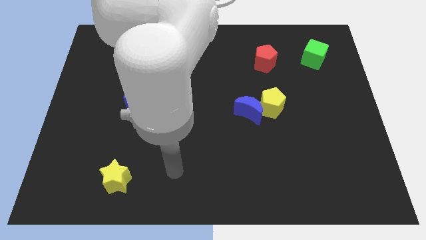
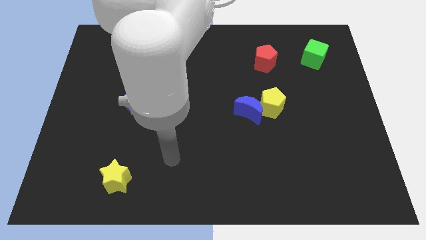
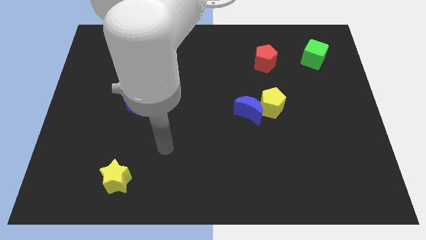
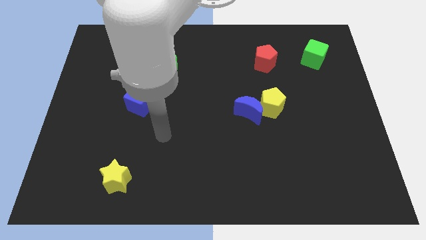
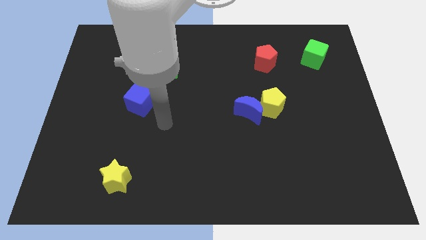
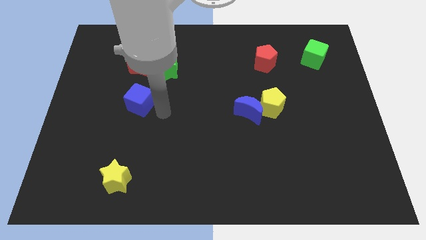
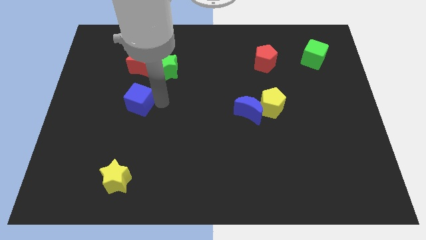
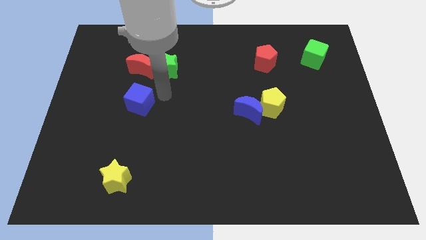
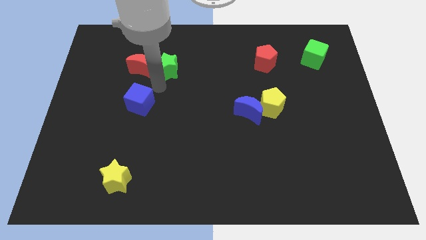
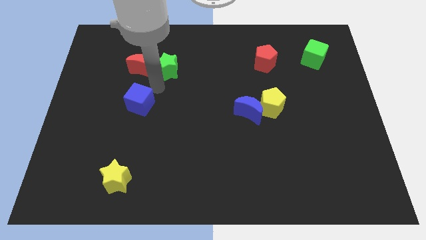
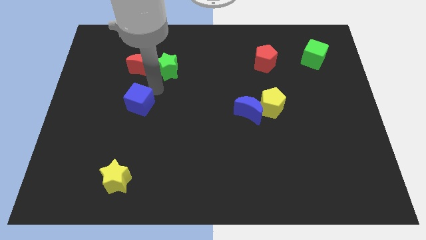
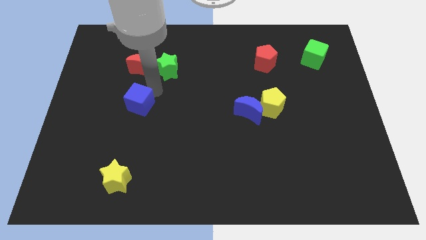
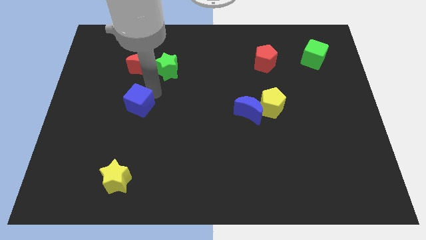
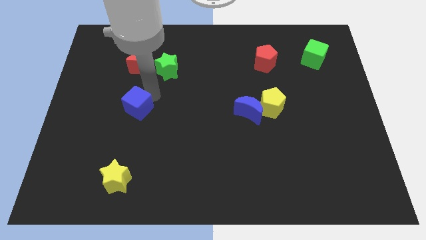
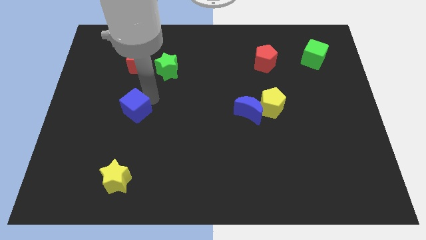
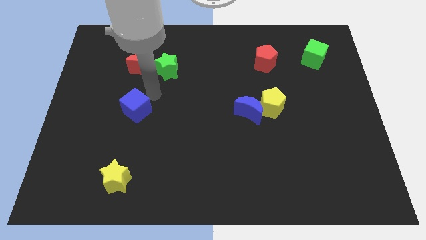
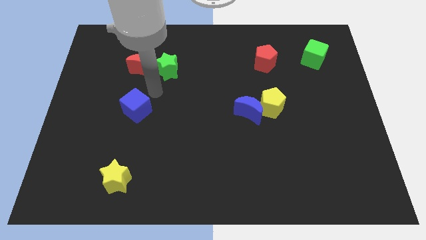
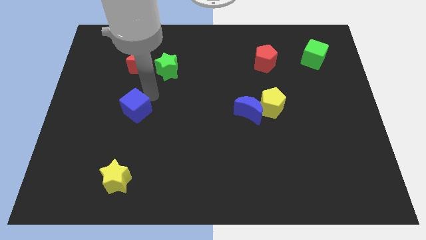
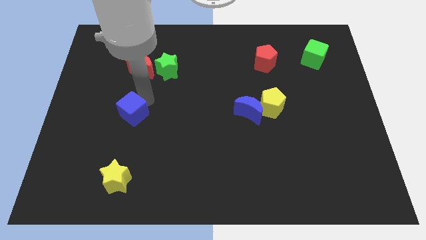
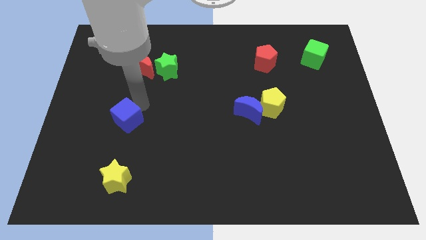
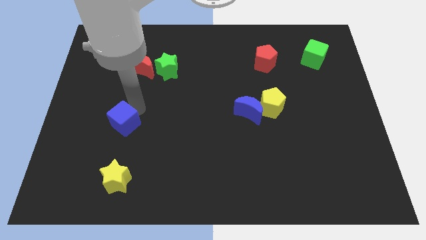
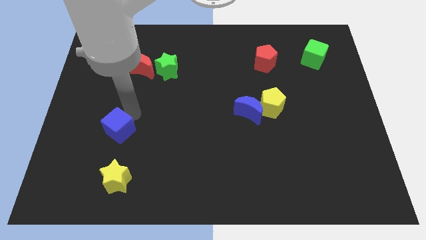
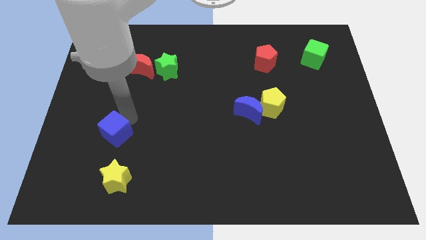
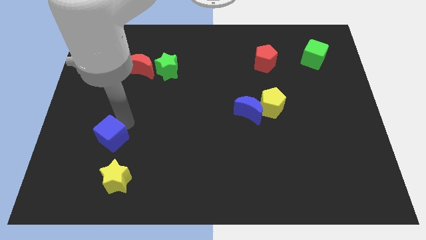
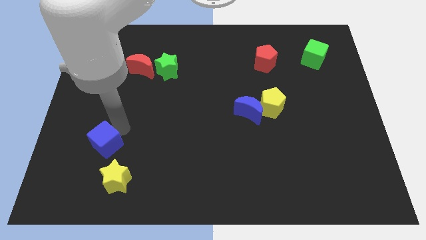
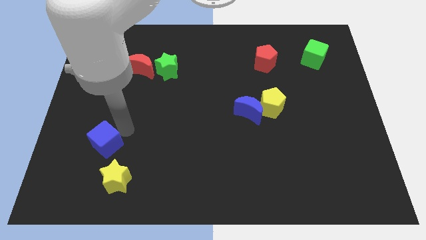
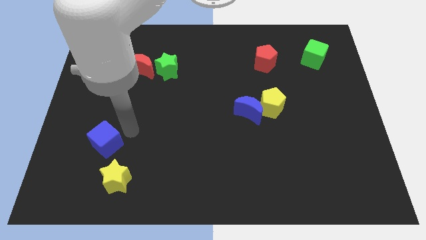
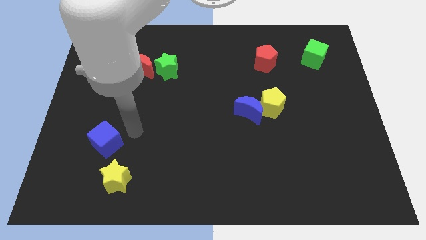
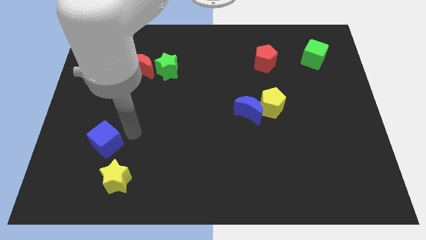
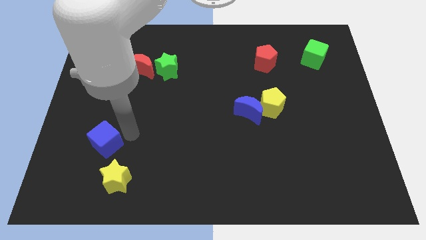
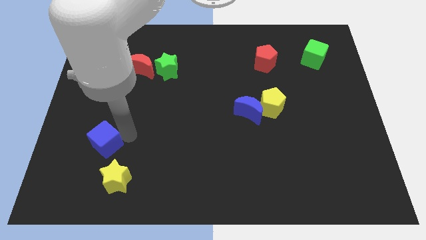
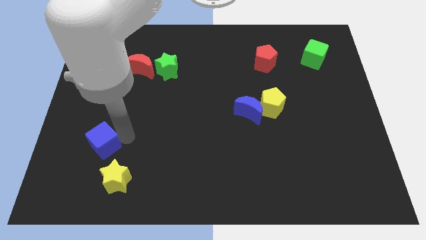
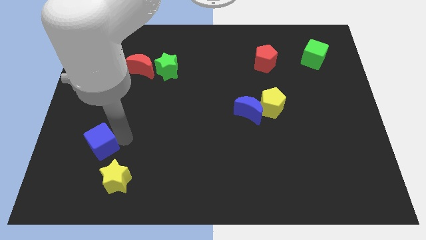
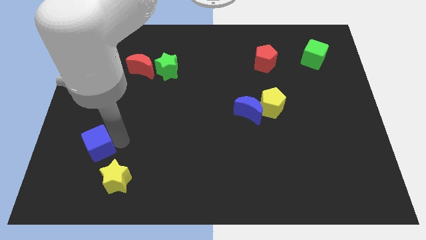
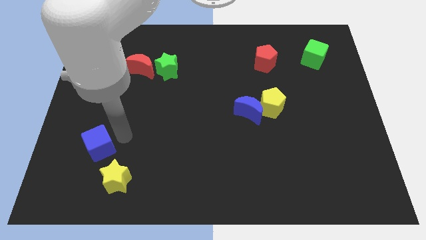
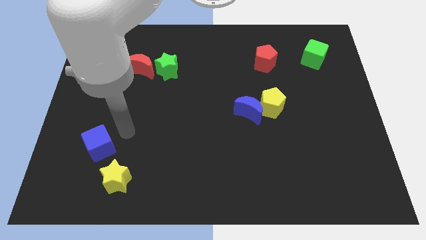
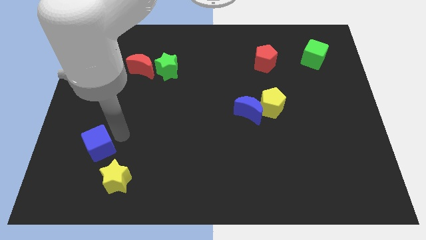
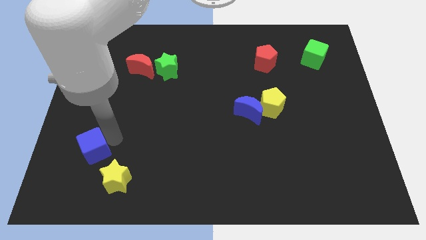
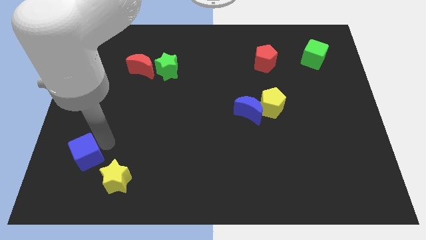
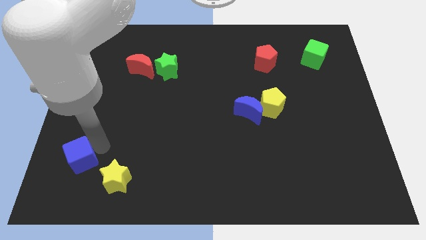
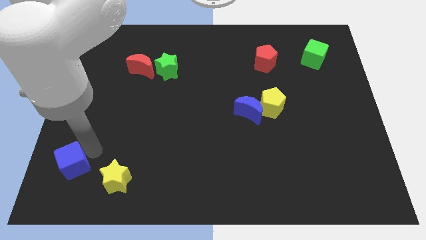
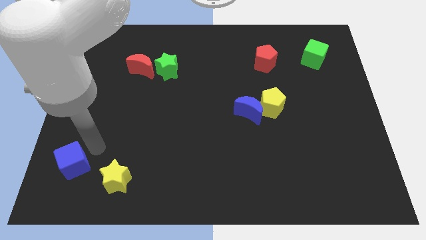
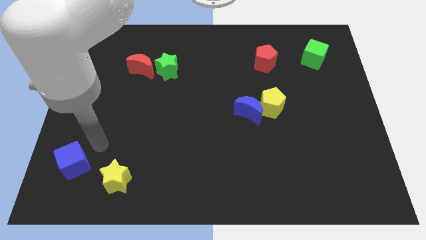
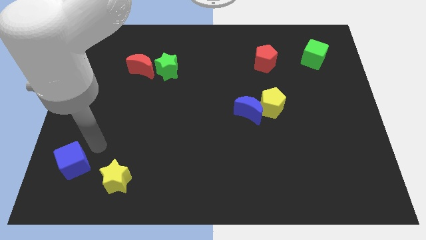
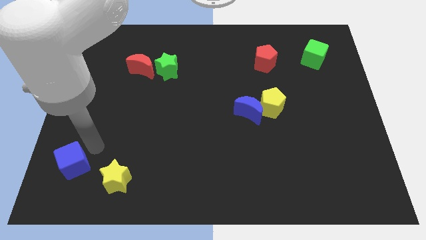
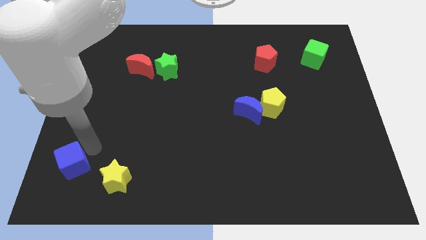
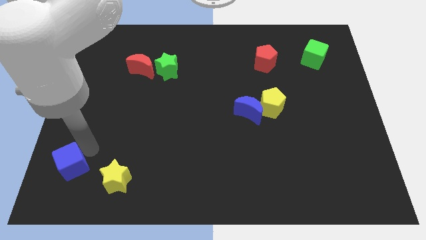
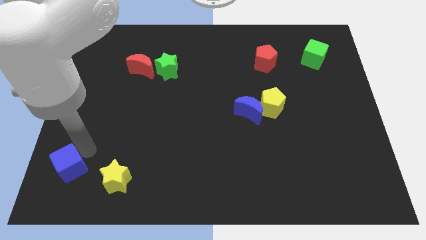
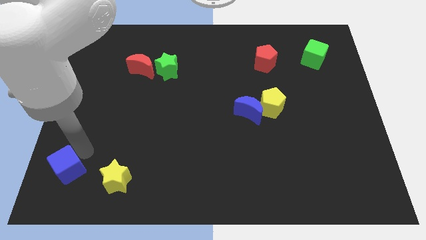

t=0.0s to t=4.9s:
slide the blue cube to the lower left corner

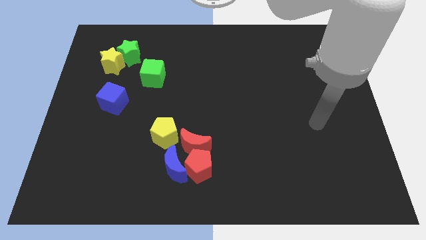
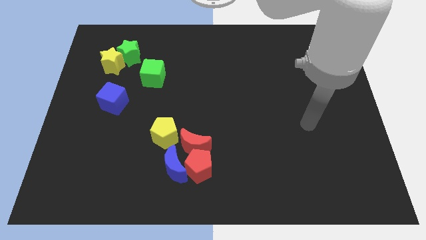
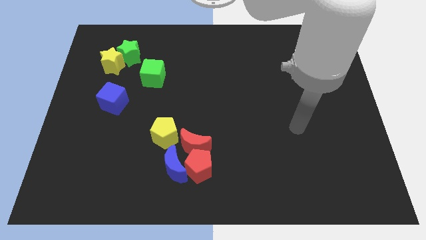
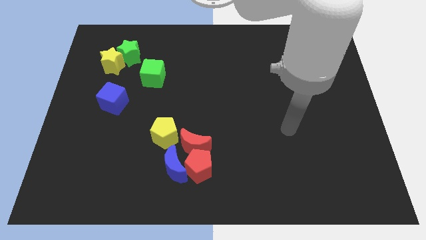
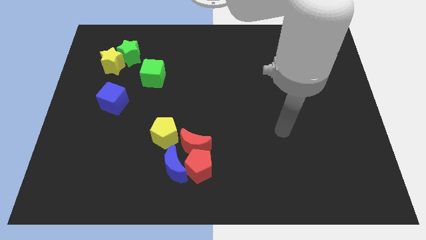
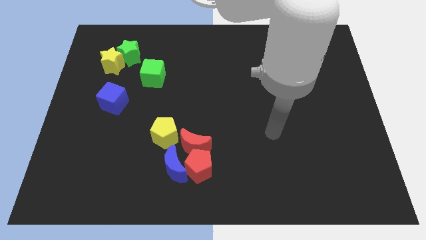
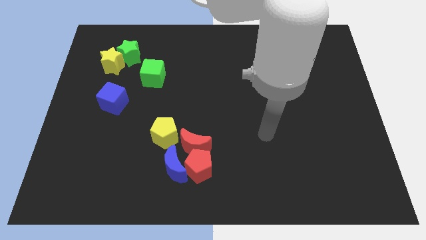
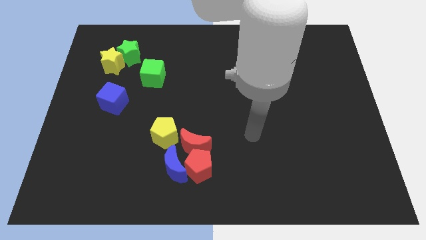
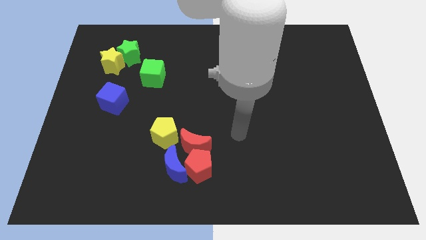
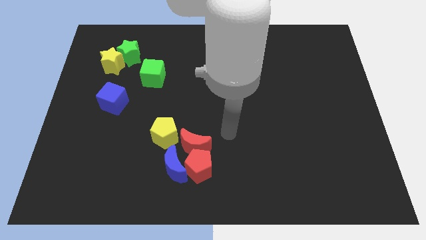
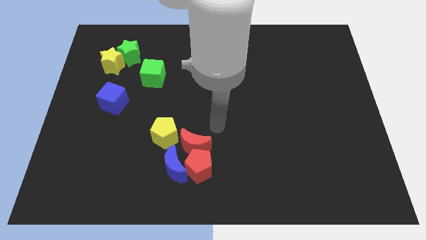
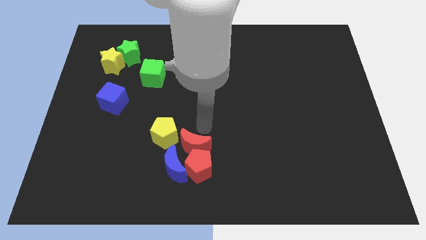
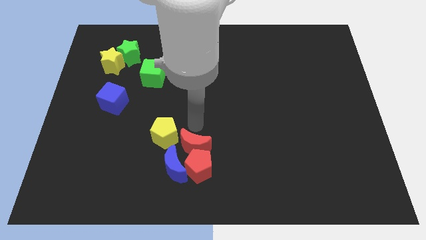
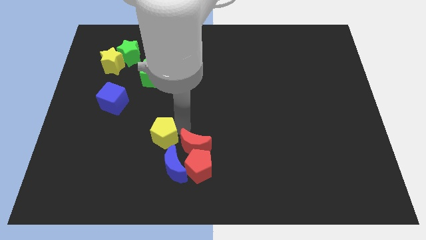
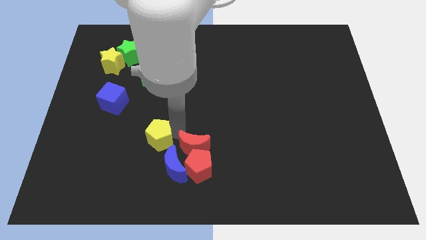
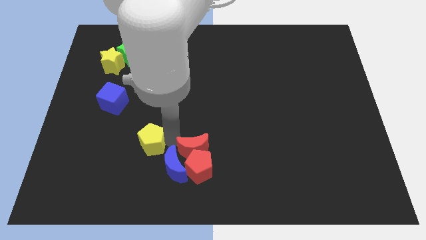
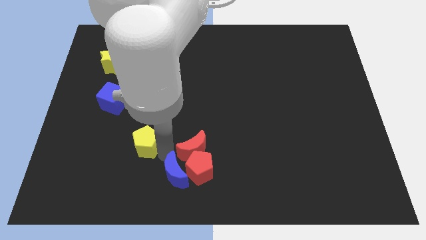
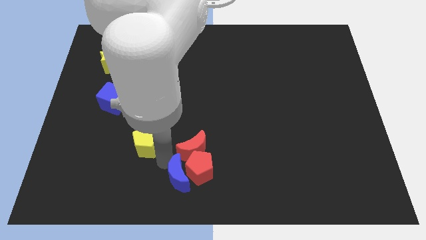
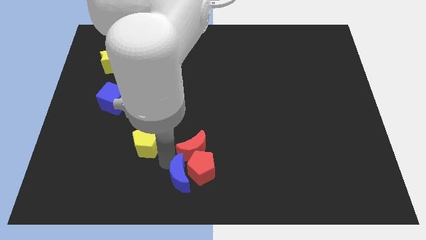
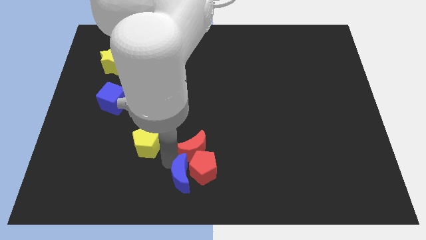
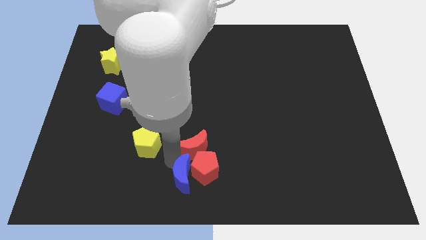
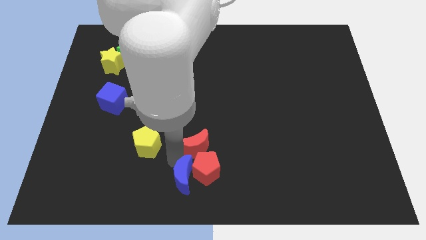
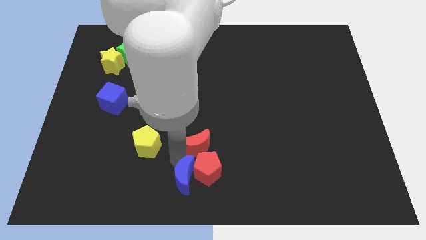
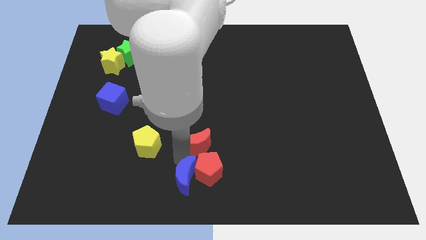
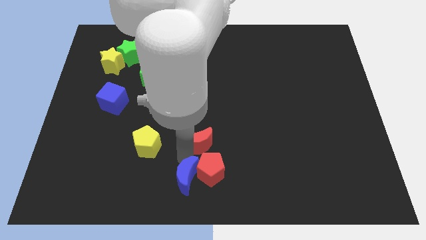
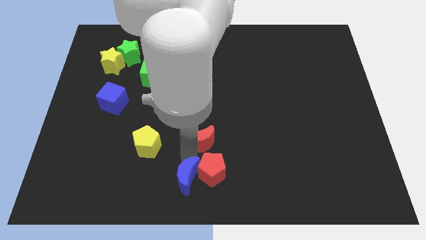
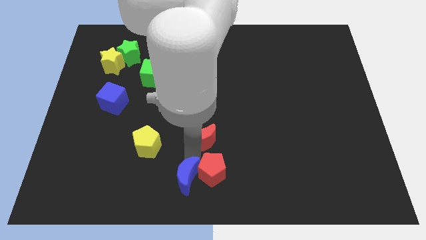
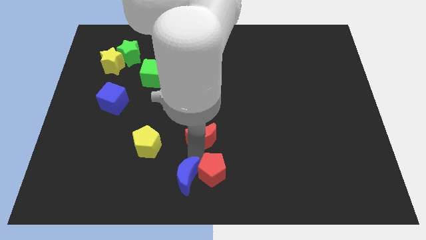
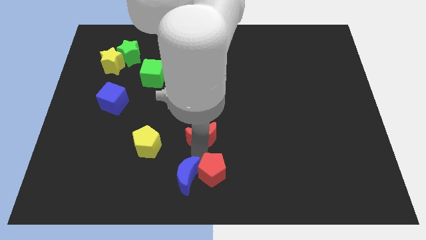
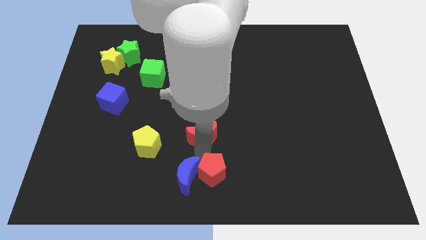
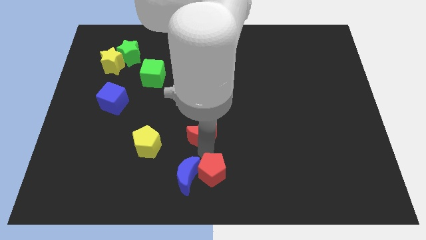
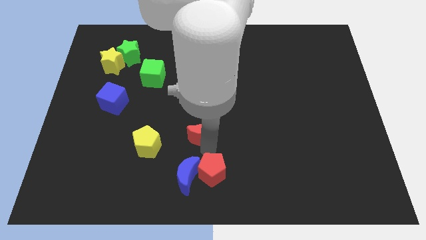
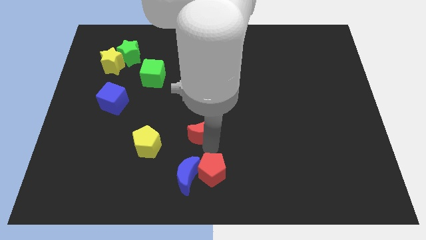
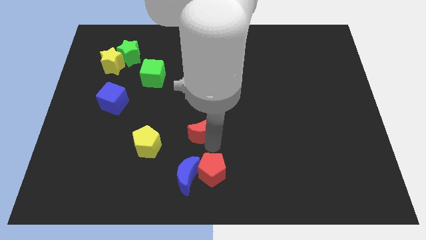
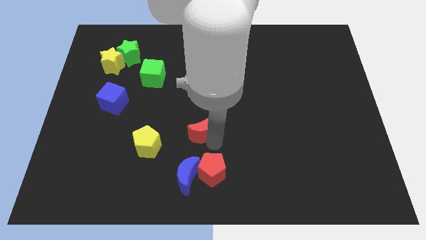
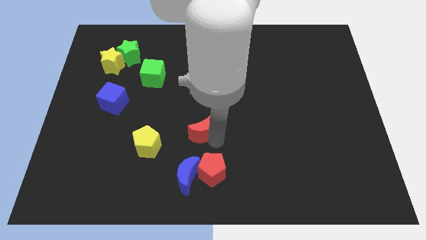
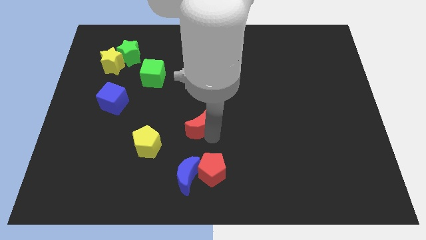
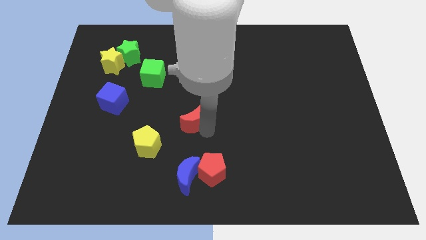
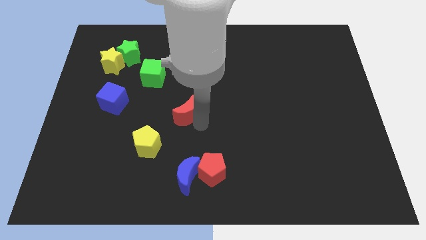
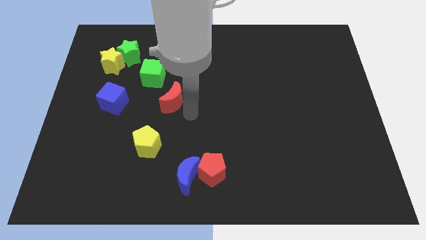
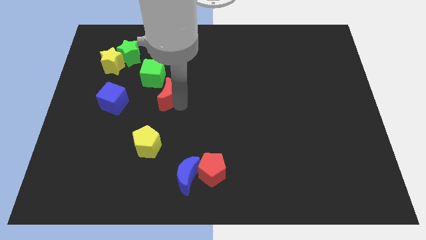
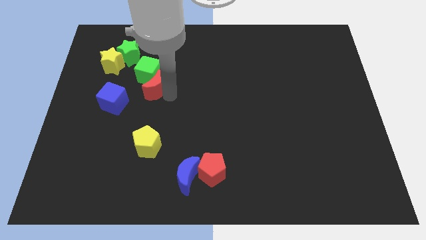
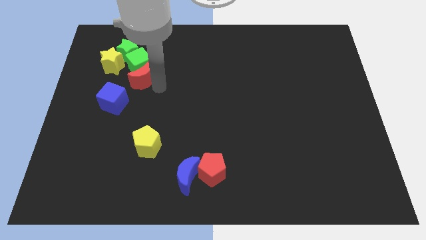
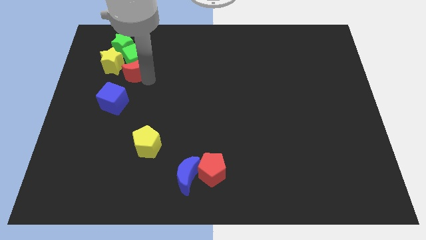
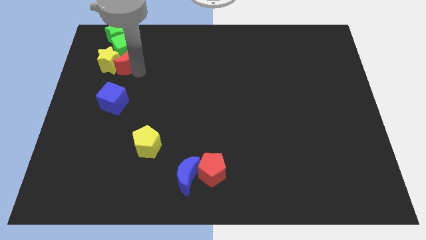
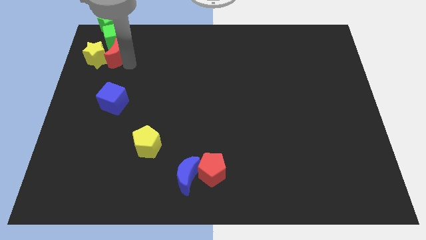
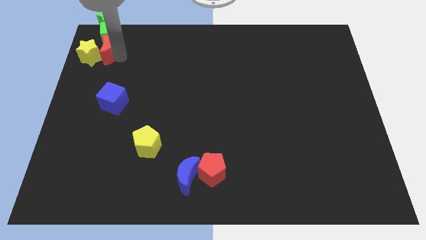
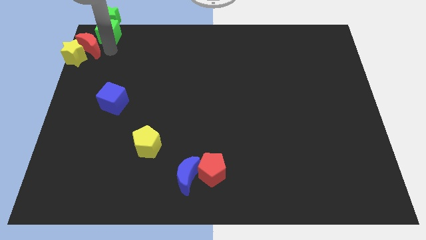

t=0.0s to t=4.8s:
put the red moon to the upper left corner
